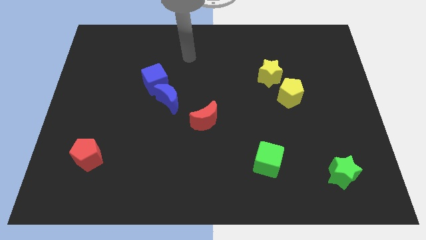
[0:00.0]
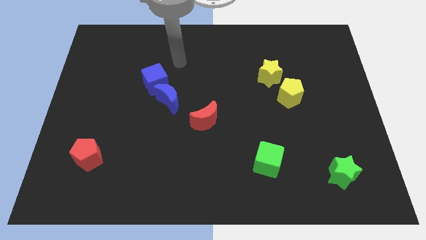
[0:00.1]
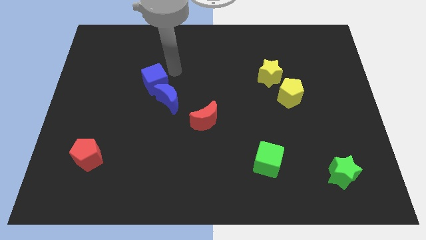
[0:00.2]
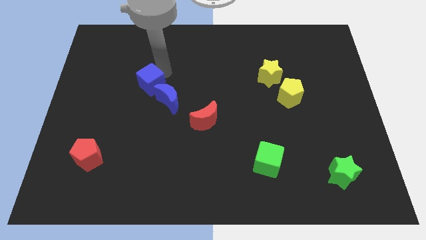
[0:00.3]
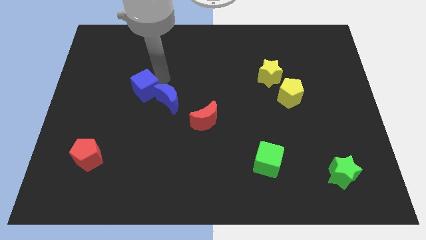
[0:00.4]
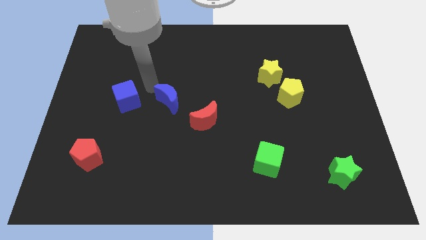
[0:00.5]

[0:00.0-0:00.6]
move the blue moon away from the blue cube

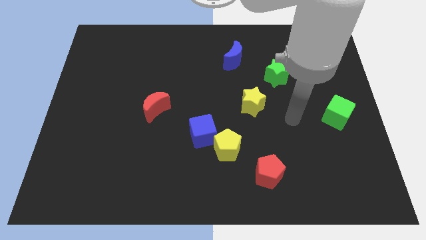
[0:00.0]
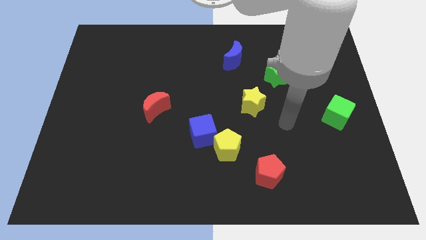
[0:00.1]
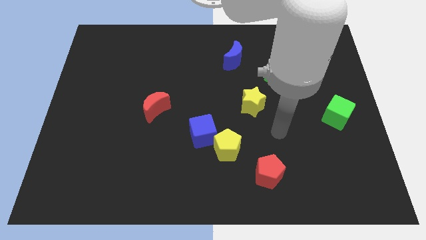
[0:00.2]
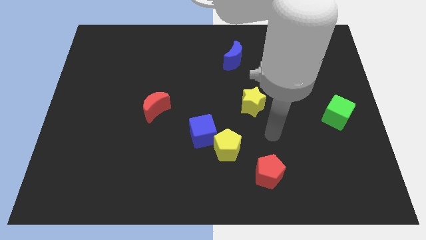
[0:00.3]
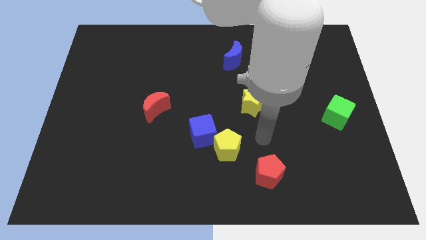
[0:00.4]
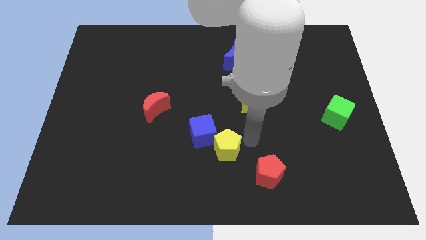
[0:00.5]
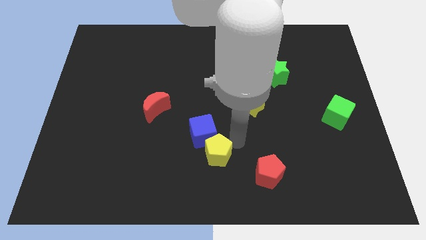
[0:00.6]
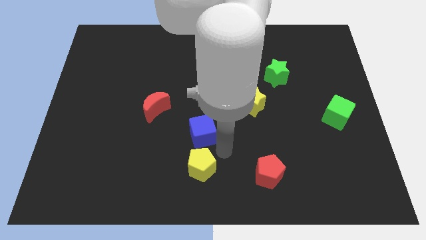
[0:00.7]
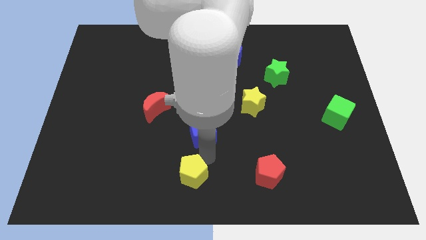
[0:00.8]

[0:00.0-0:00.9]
pull the blue cube apart from the yellow pentagon

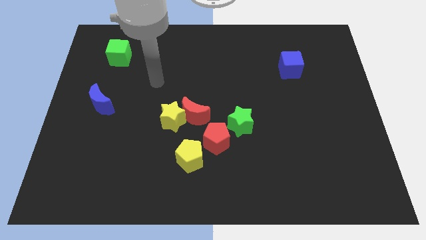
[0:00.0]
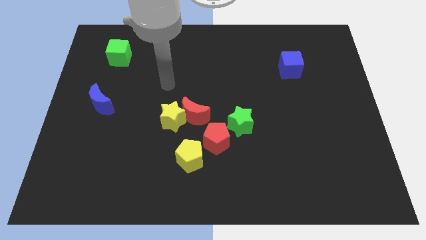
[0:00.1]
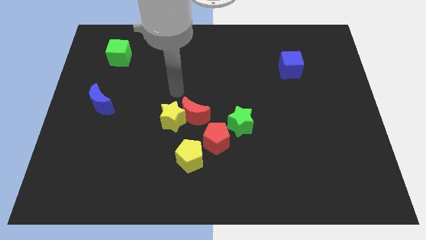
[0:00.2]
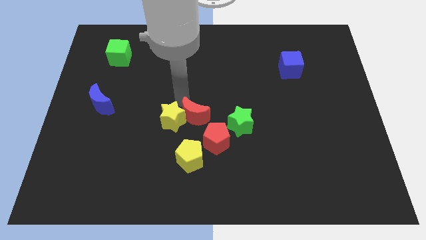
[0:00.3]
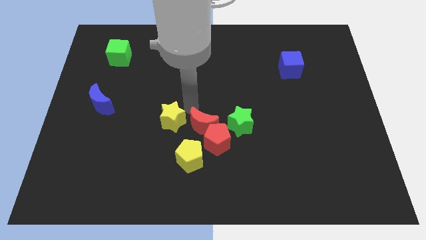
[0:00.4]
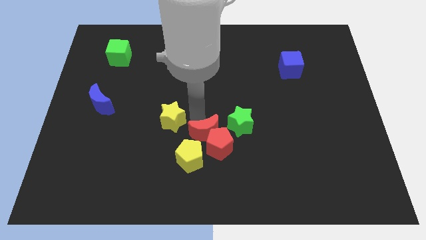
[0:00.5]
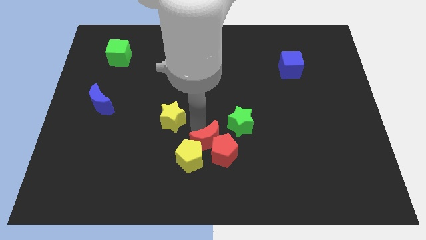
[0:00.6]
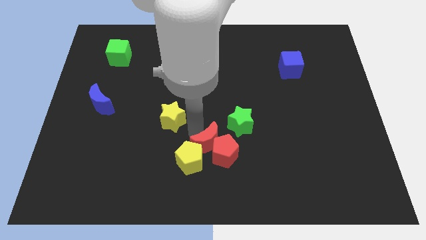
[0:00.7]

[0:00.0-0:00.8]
separate the yellow star from the red moon

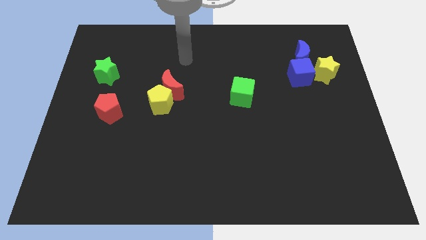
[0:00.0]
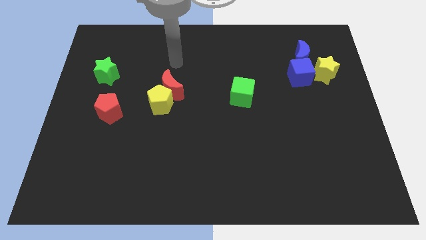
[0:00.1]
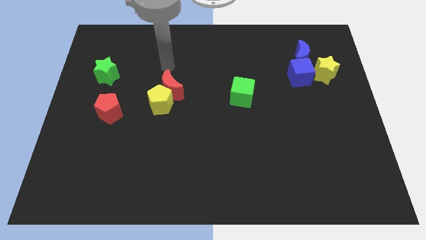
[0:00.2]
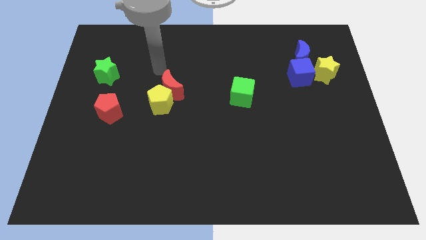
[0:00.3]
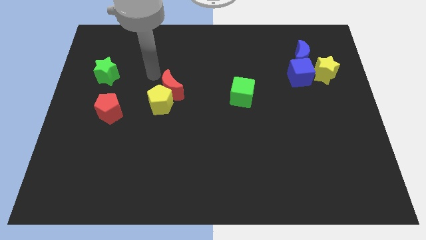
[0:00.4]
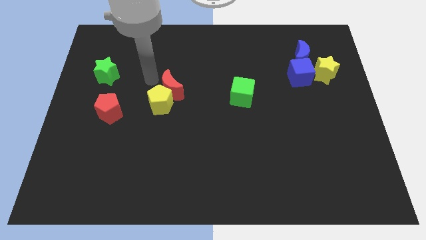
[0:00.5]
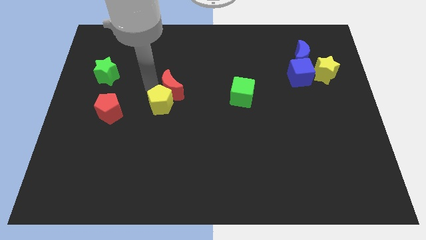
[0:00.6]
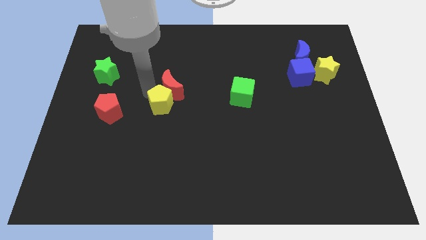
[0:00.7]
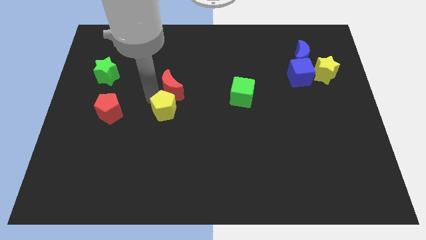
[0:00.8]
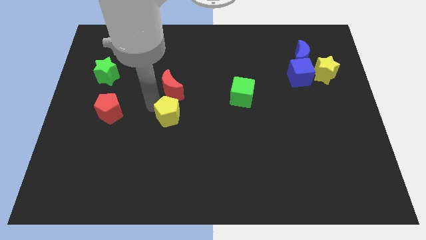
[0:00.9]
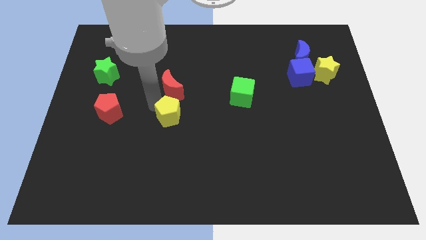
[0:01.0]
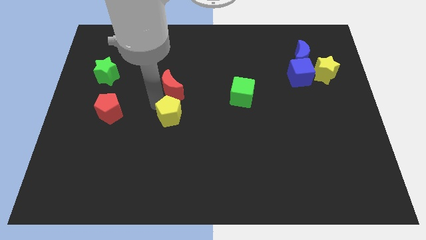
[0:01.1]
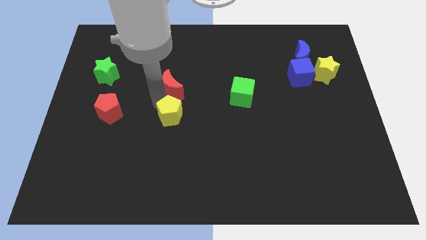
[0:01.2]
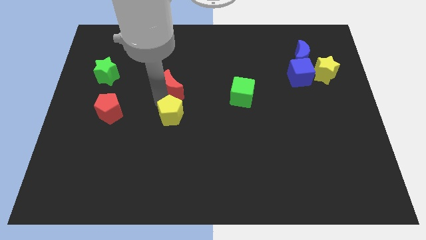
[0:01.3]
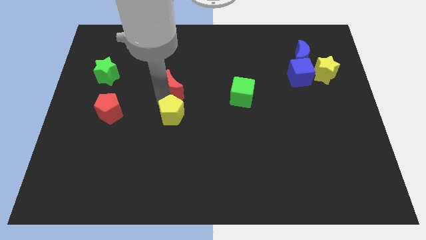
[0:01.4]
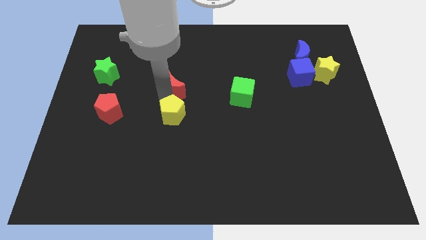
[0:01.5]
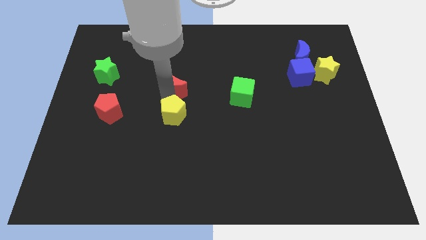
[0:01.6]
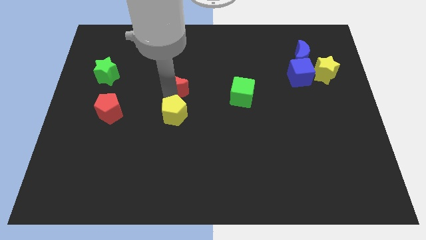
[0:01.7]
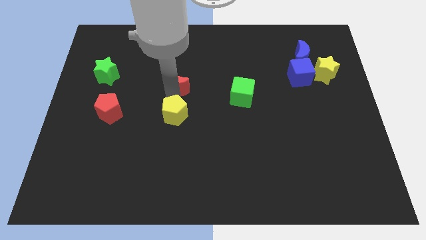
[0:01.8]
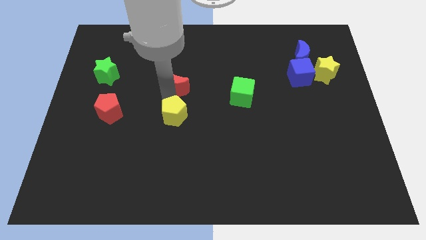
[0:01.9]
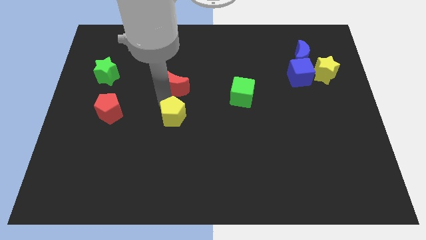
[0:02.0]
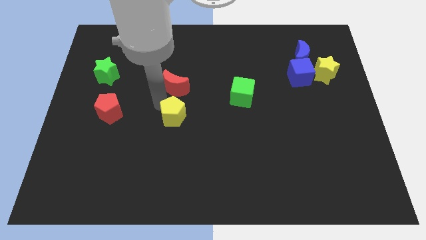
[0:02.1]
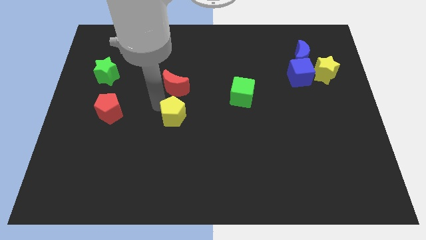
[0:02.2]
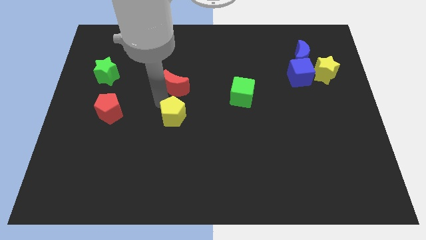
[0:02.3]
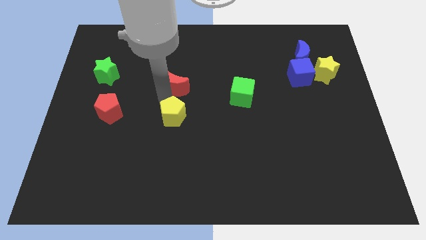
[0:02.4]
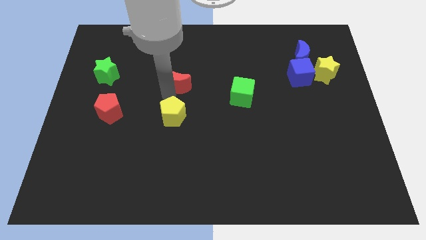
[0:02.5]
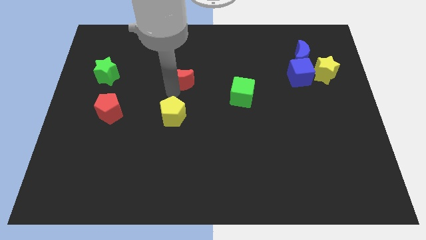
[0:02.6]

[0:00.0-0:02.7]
move the red moon away from the yellow pentagon

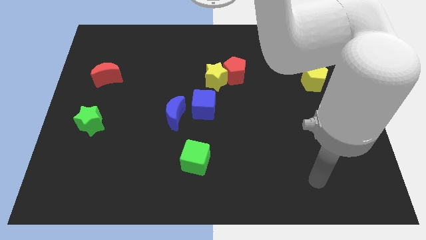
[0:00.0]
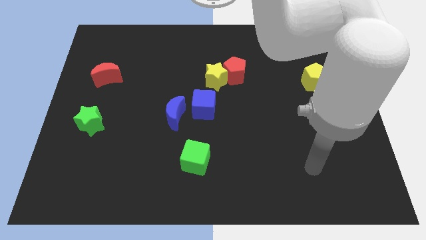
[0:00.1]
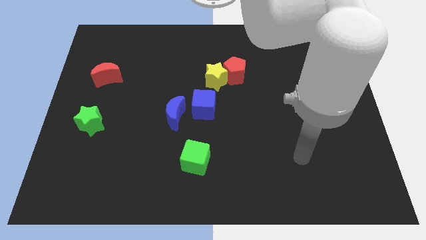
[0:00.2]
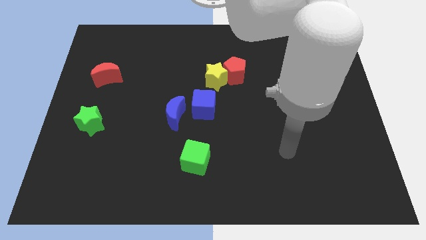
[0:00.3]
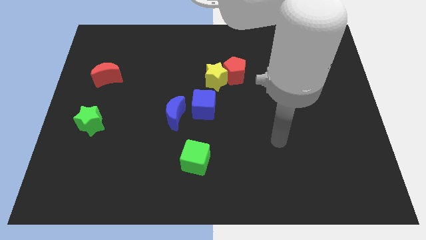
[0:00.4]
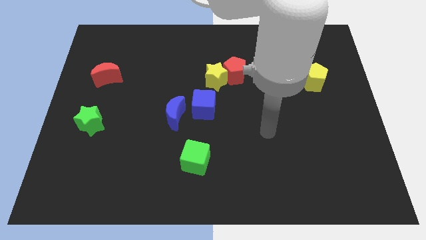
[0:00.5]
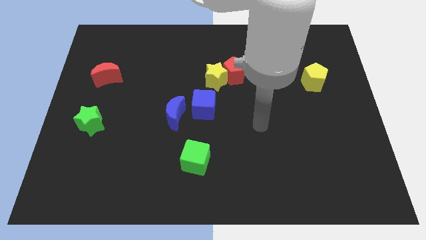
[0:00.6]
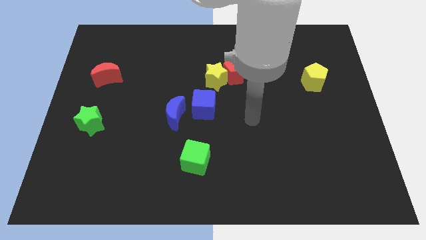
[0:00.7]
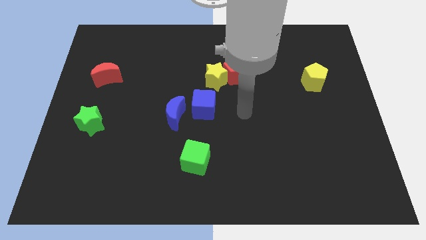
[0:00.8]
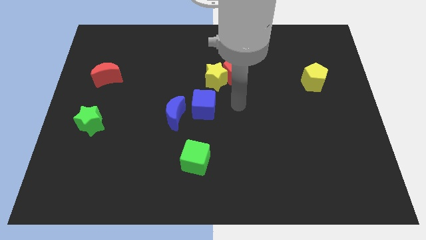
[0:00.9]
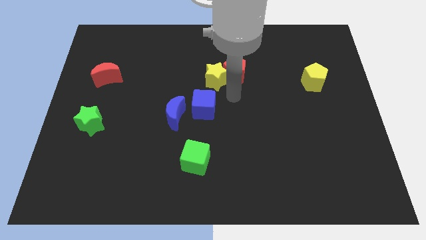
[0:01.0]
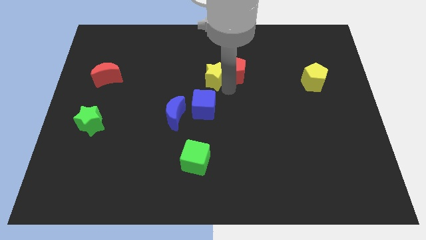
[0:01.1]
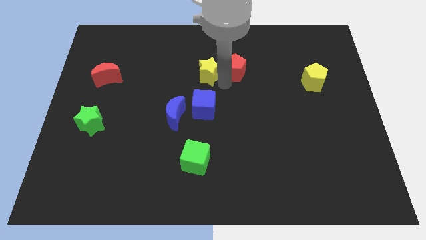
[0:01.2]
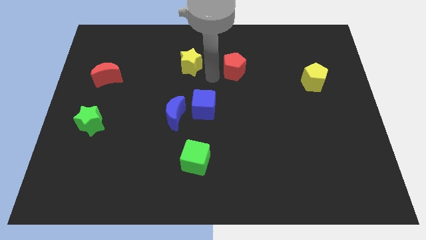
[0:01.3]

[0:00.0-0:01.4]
separate the red pentagon from the yellow star

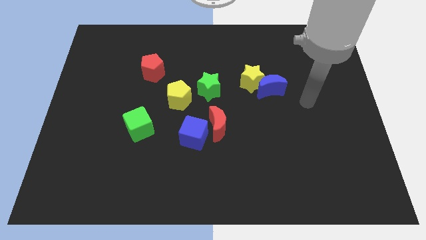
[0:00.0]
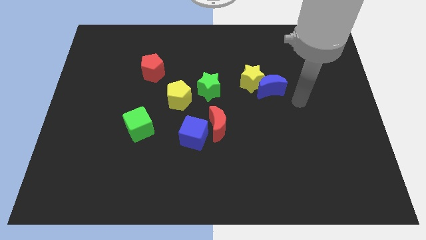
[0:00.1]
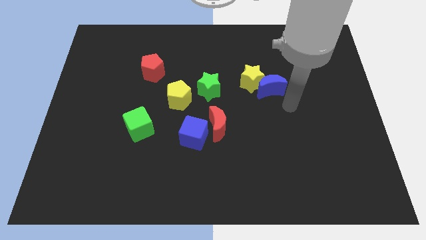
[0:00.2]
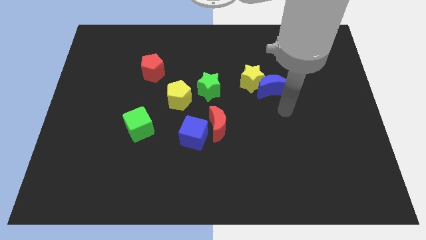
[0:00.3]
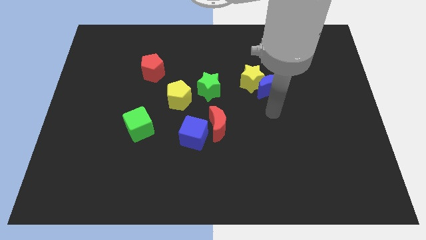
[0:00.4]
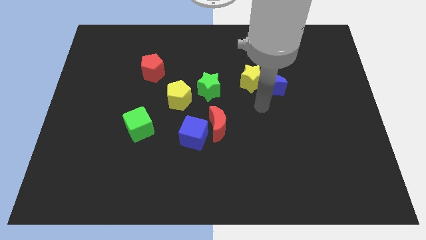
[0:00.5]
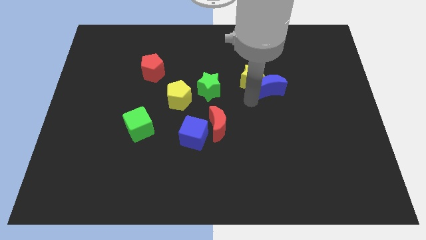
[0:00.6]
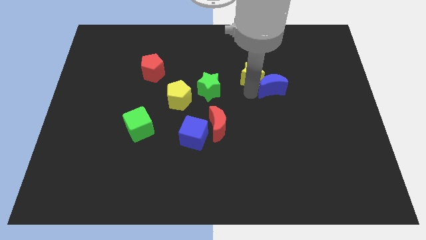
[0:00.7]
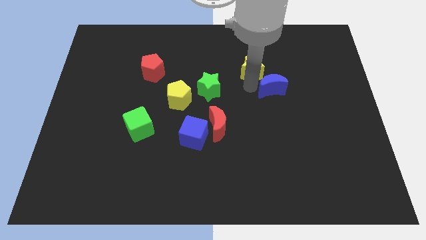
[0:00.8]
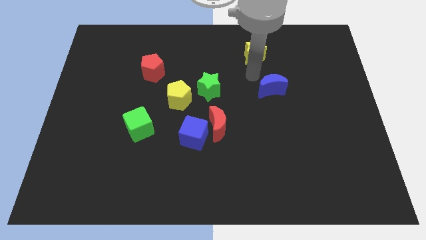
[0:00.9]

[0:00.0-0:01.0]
pull the blue moon apart from the yellow star

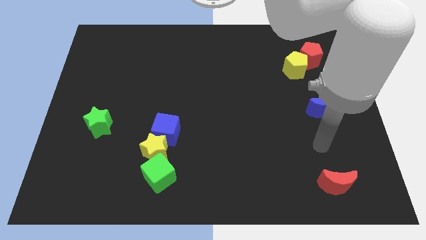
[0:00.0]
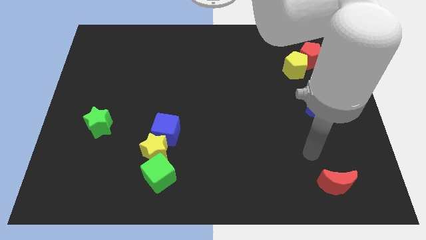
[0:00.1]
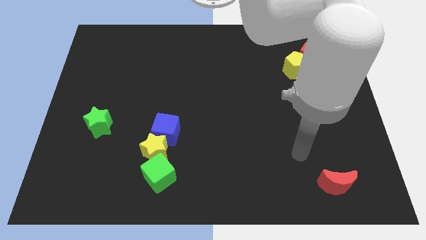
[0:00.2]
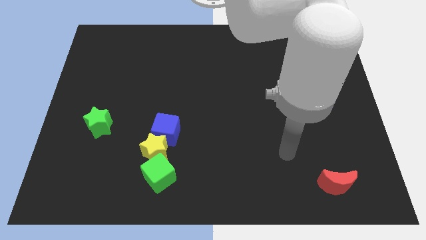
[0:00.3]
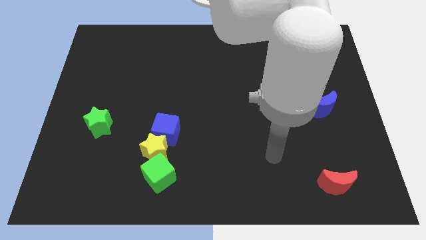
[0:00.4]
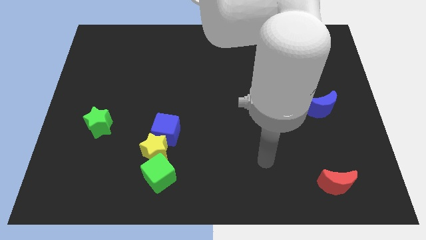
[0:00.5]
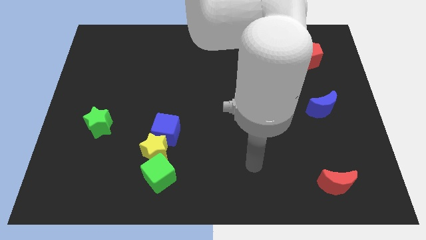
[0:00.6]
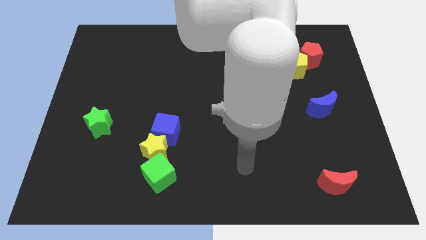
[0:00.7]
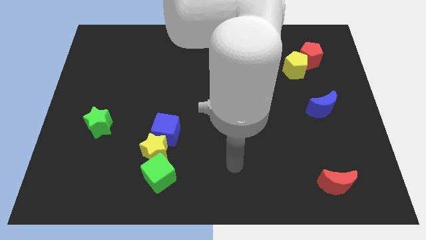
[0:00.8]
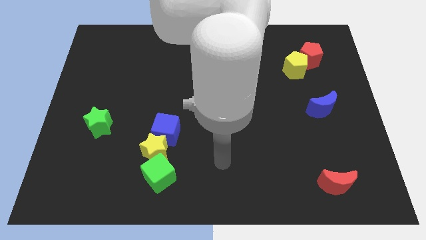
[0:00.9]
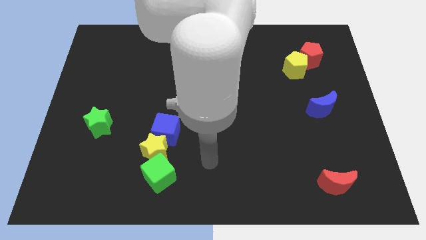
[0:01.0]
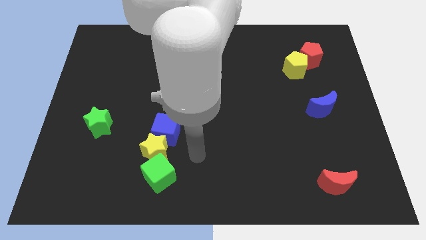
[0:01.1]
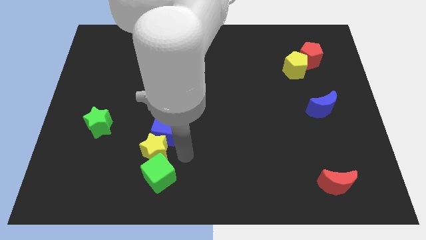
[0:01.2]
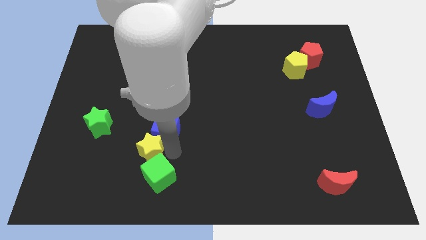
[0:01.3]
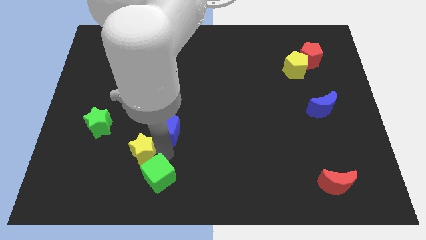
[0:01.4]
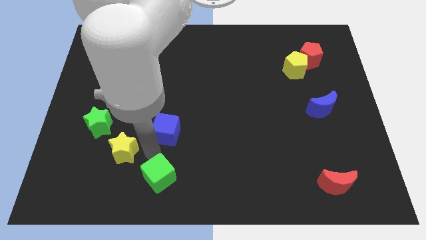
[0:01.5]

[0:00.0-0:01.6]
separate the blue cube from the yellow star

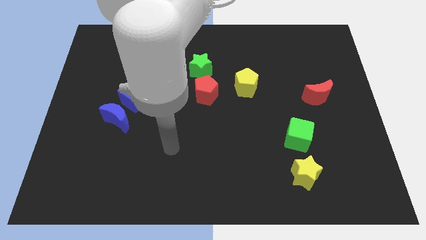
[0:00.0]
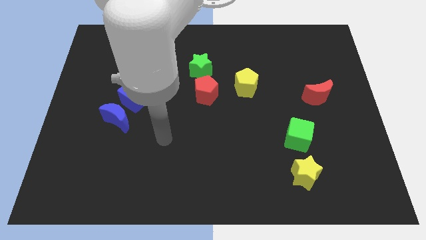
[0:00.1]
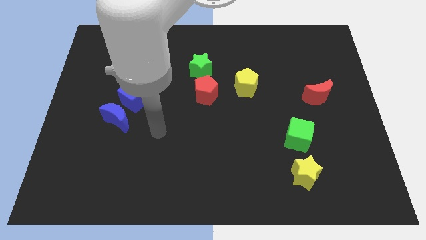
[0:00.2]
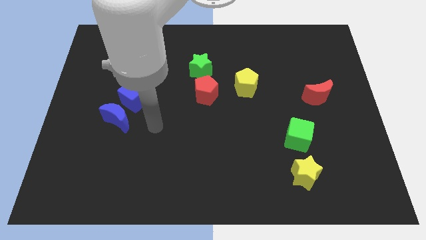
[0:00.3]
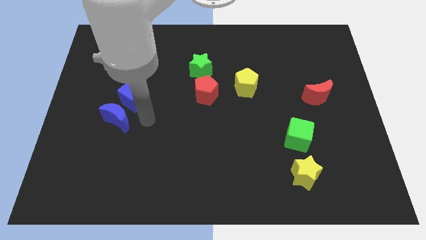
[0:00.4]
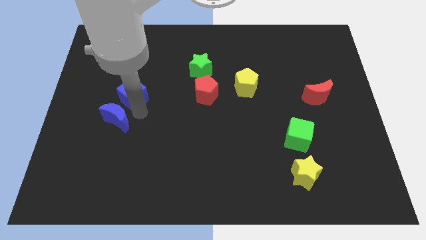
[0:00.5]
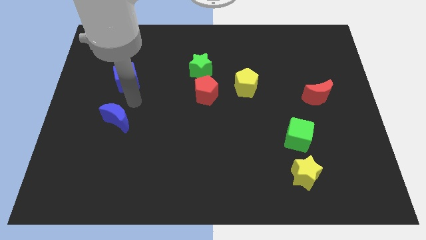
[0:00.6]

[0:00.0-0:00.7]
separate the blue moon from the blue cube
